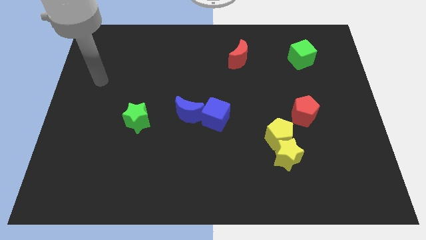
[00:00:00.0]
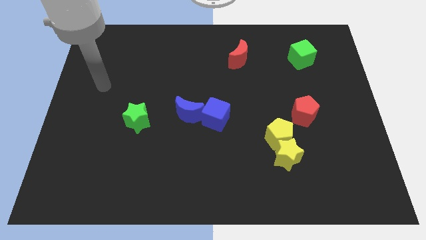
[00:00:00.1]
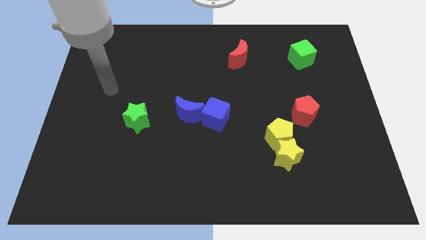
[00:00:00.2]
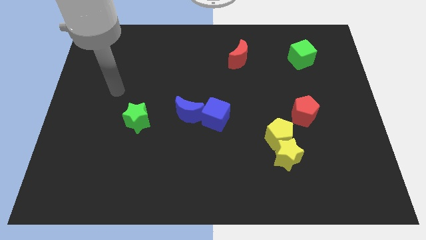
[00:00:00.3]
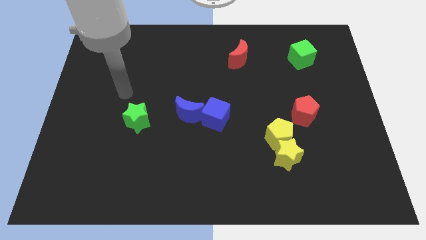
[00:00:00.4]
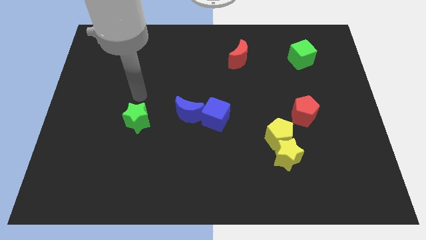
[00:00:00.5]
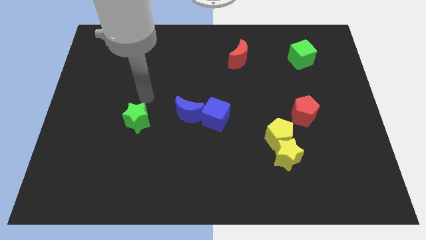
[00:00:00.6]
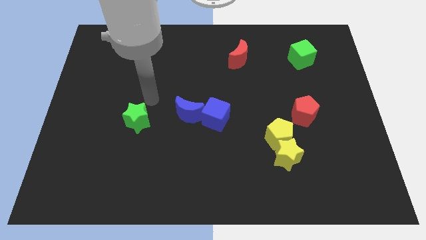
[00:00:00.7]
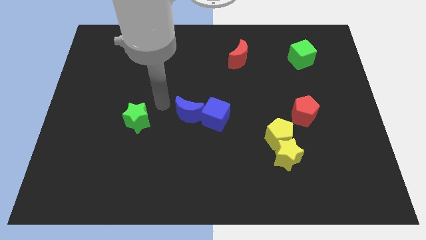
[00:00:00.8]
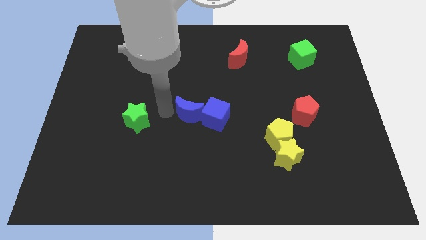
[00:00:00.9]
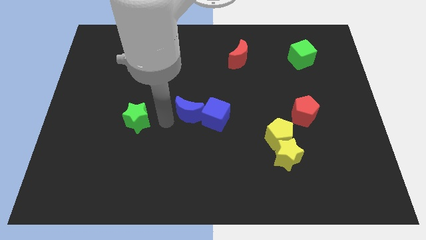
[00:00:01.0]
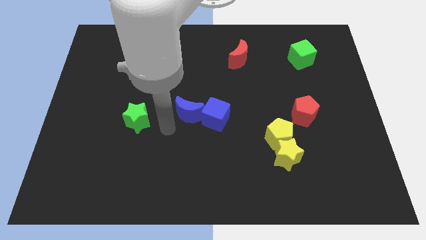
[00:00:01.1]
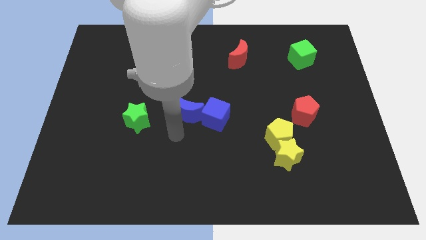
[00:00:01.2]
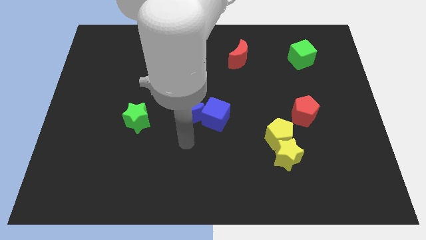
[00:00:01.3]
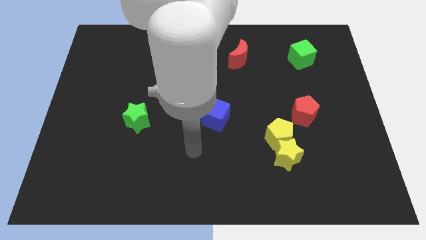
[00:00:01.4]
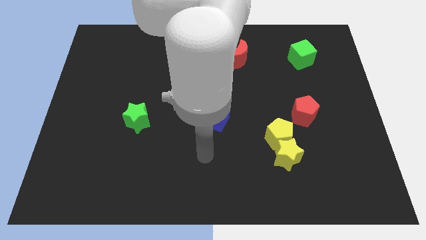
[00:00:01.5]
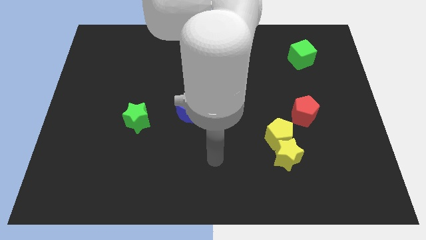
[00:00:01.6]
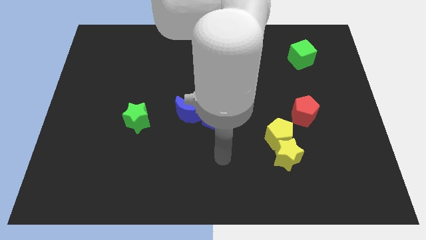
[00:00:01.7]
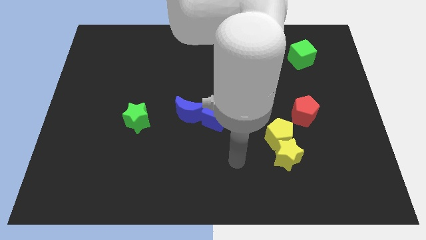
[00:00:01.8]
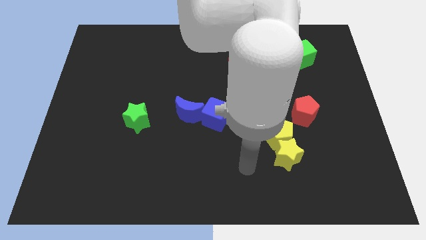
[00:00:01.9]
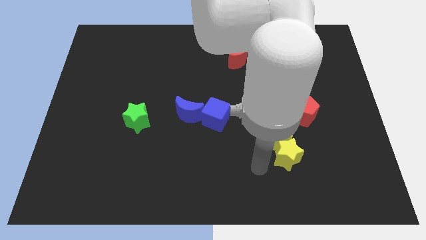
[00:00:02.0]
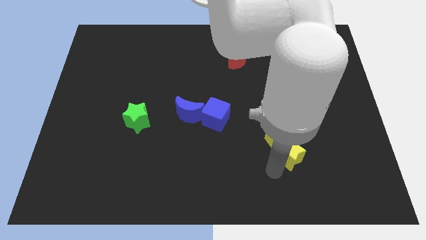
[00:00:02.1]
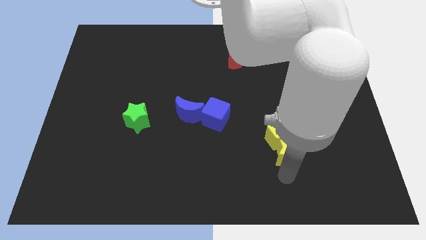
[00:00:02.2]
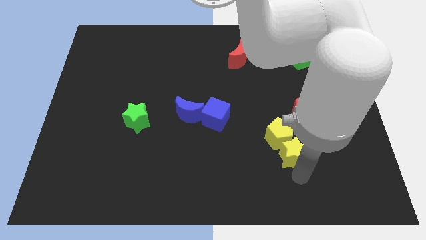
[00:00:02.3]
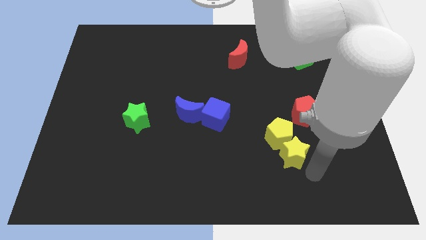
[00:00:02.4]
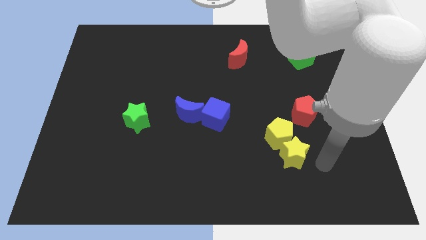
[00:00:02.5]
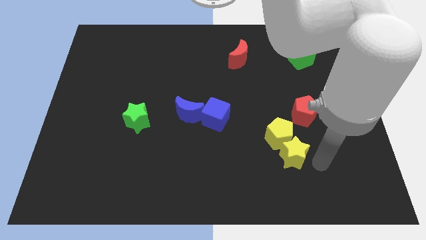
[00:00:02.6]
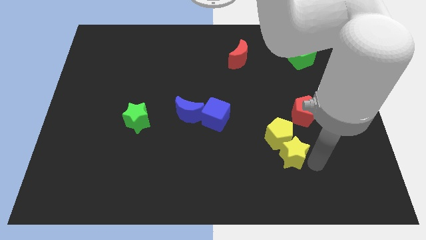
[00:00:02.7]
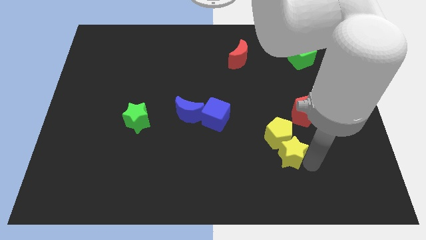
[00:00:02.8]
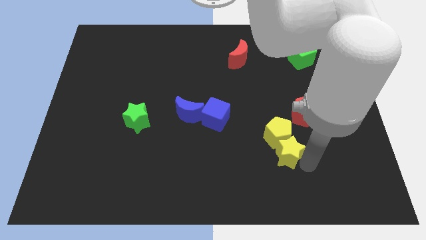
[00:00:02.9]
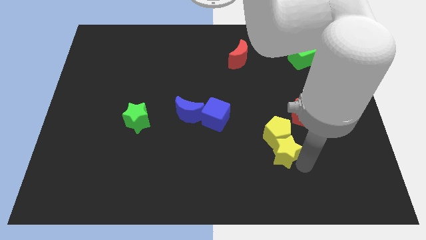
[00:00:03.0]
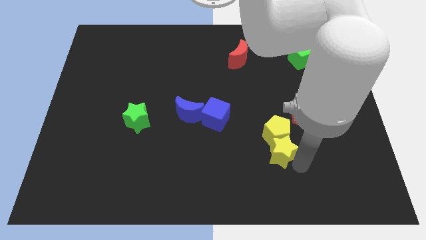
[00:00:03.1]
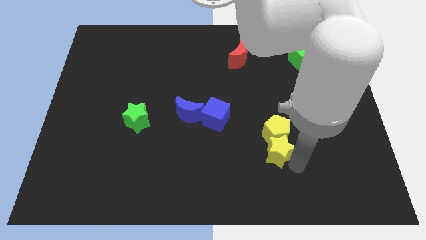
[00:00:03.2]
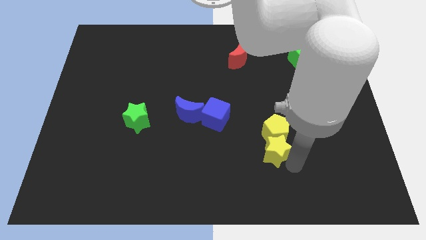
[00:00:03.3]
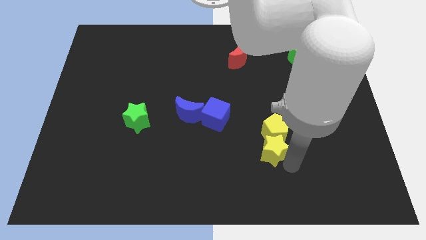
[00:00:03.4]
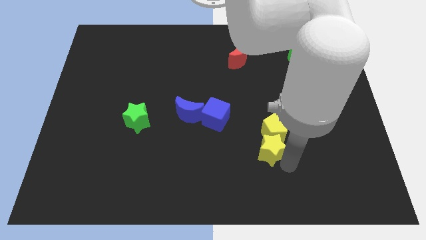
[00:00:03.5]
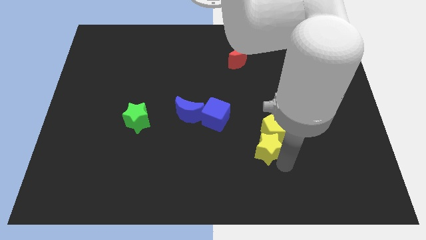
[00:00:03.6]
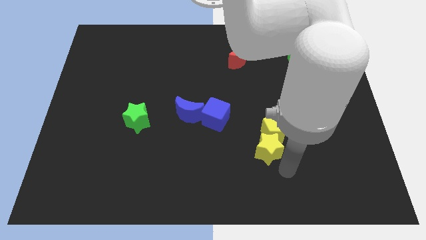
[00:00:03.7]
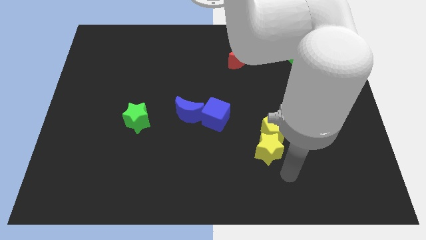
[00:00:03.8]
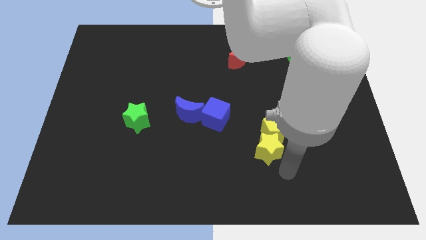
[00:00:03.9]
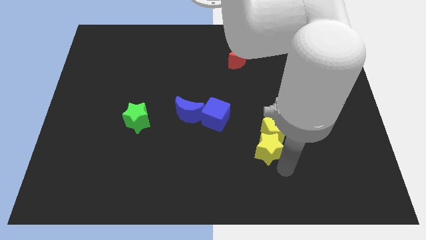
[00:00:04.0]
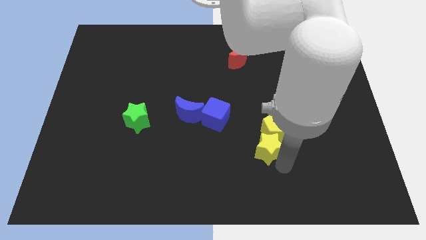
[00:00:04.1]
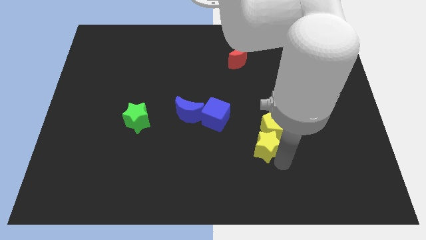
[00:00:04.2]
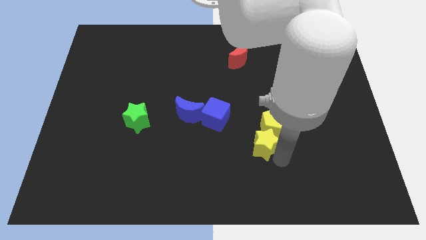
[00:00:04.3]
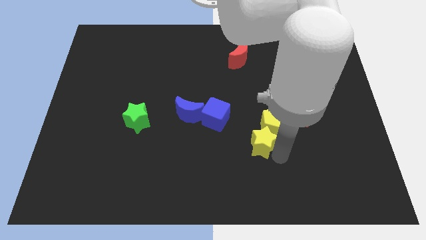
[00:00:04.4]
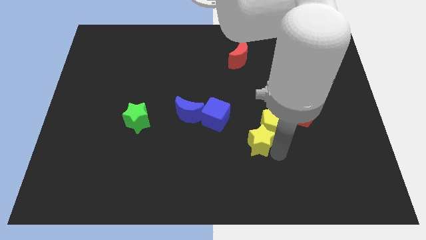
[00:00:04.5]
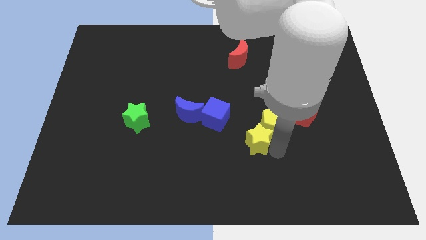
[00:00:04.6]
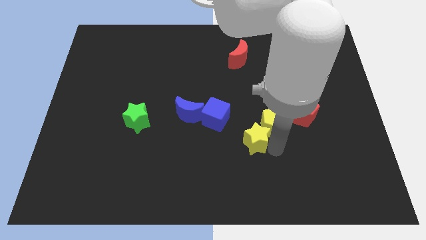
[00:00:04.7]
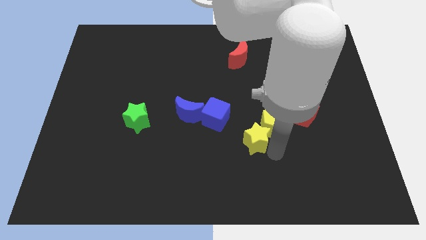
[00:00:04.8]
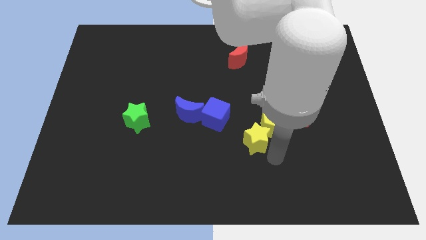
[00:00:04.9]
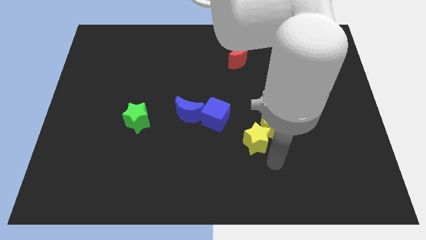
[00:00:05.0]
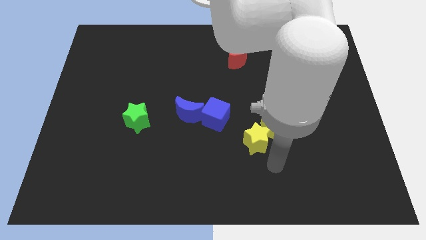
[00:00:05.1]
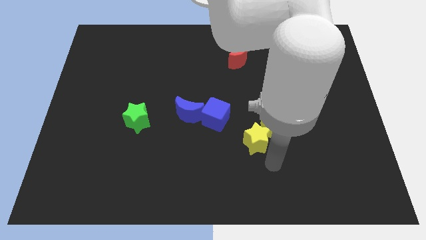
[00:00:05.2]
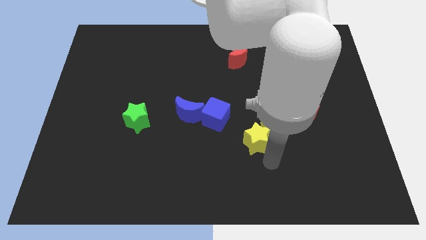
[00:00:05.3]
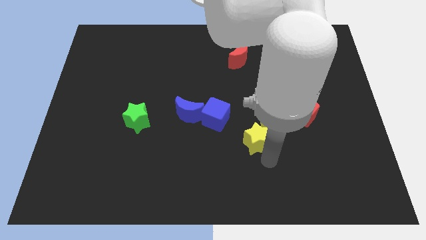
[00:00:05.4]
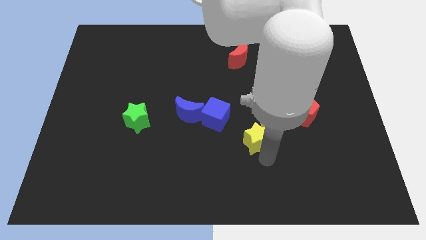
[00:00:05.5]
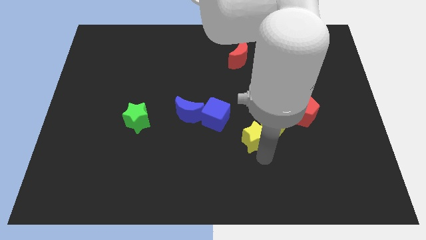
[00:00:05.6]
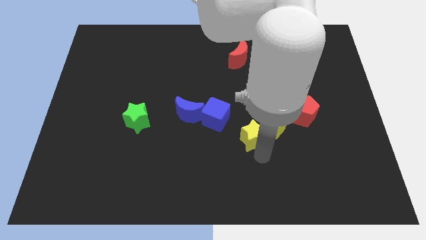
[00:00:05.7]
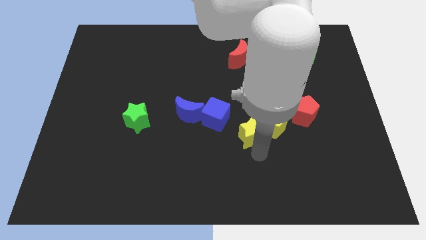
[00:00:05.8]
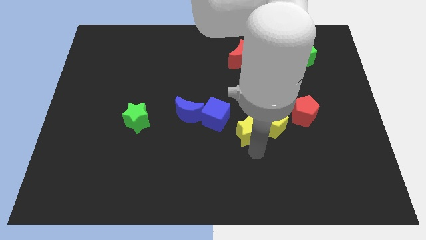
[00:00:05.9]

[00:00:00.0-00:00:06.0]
slide the yellow star to the middle

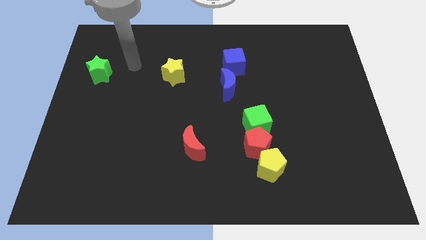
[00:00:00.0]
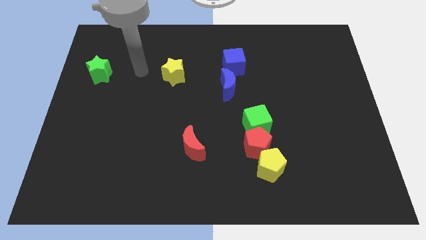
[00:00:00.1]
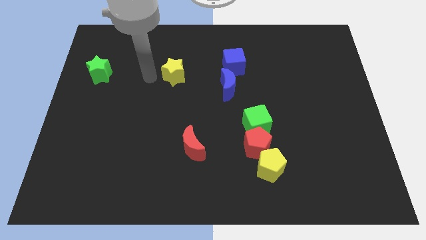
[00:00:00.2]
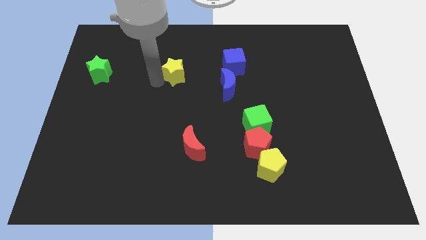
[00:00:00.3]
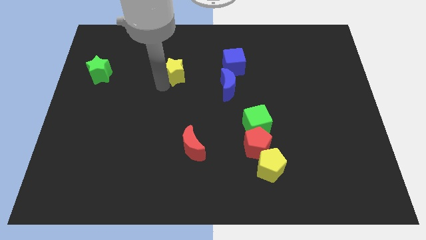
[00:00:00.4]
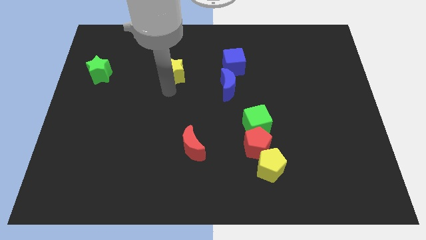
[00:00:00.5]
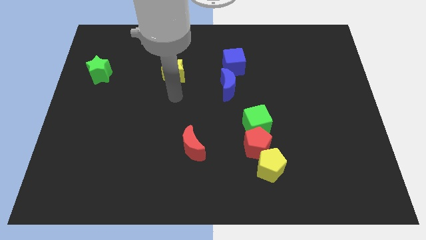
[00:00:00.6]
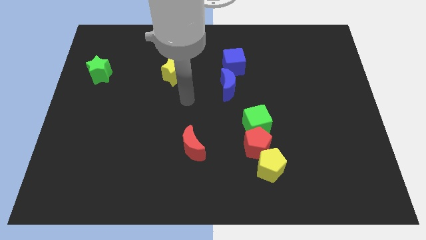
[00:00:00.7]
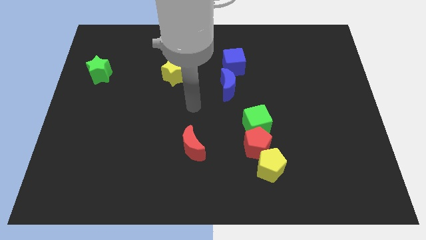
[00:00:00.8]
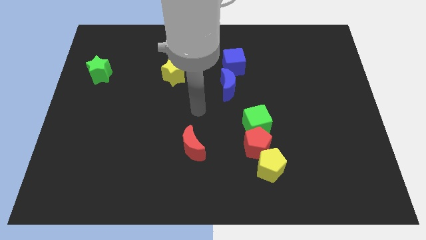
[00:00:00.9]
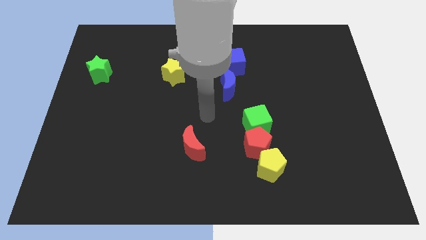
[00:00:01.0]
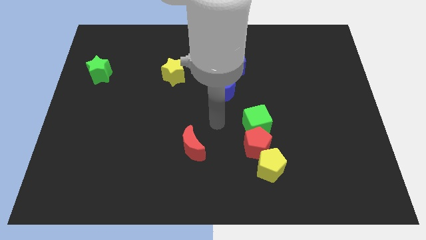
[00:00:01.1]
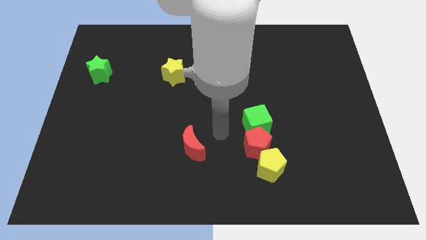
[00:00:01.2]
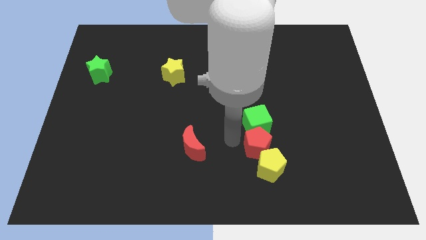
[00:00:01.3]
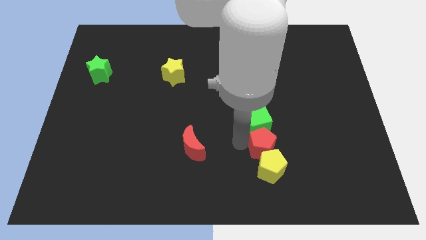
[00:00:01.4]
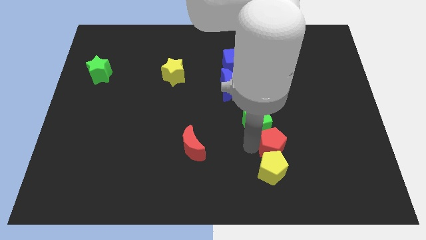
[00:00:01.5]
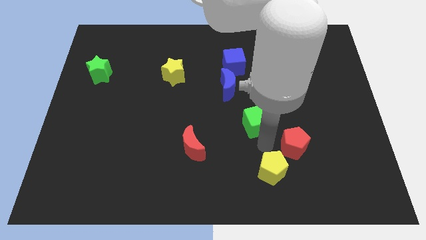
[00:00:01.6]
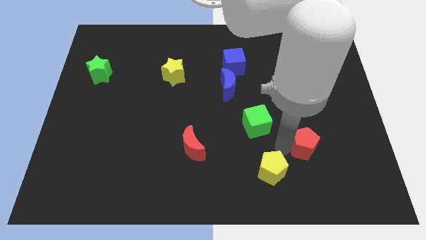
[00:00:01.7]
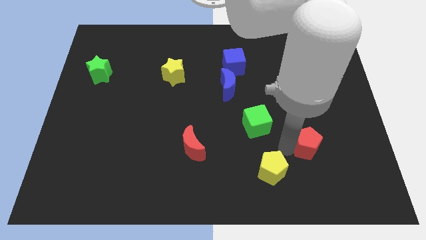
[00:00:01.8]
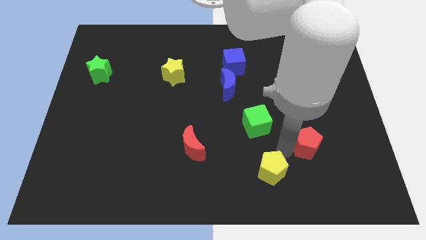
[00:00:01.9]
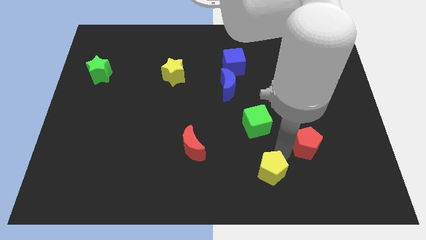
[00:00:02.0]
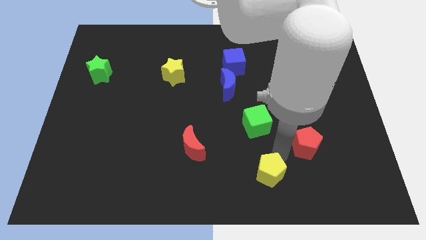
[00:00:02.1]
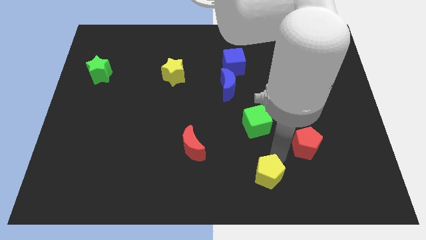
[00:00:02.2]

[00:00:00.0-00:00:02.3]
put the yellow pentagon to the bottom
